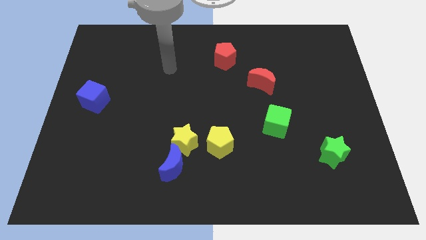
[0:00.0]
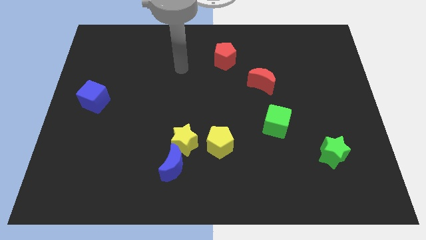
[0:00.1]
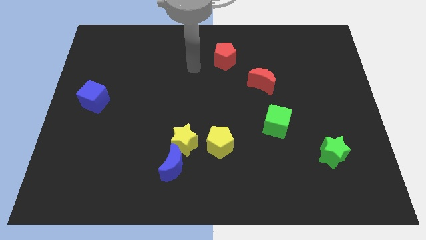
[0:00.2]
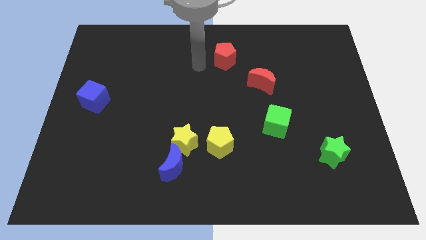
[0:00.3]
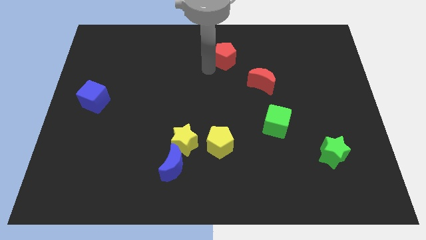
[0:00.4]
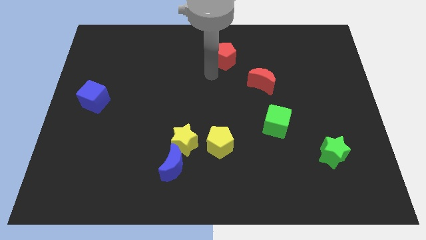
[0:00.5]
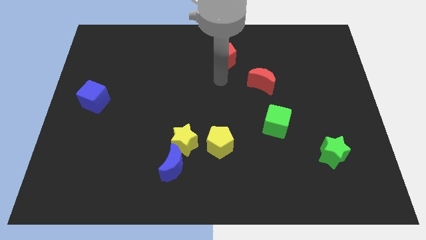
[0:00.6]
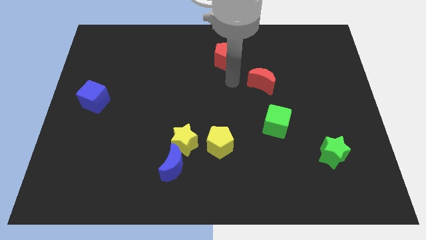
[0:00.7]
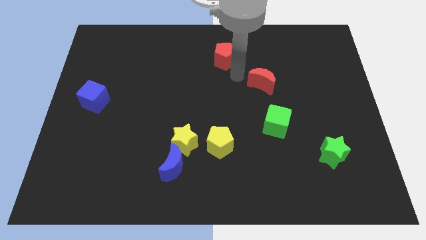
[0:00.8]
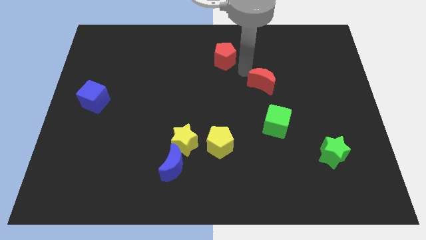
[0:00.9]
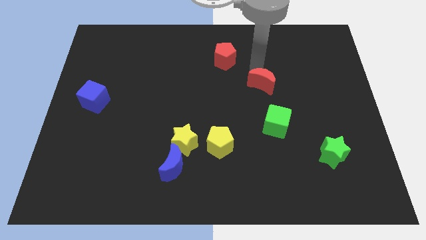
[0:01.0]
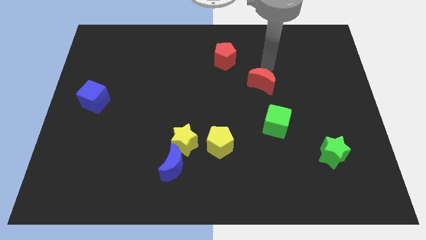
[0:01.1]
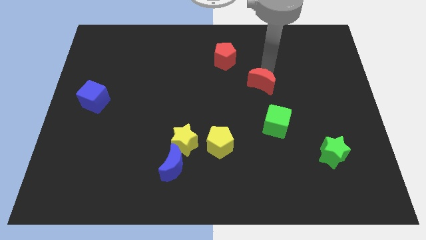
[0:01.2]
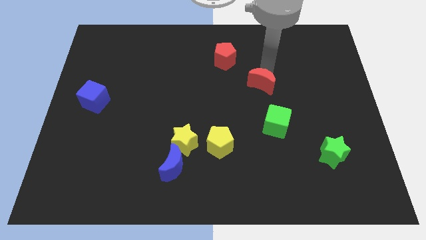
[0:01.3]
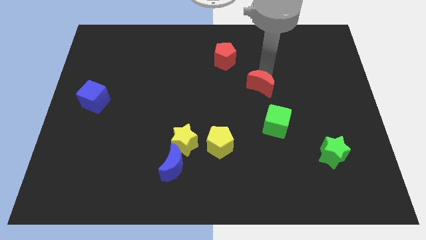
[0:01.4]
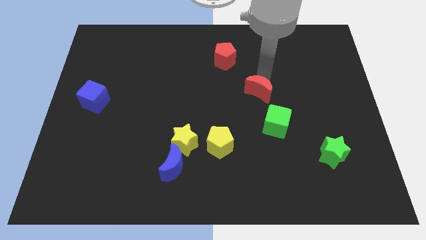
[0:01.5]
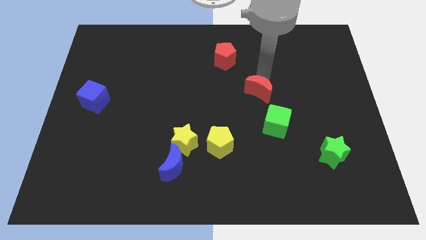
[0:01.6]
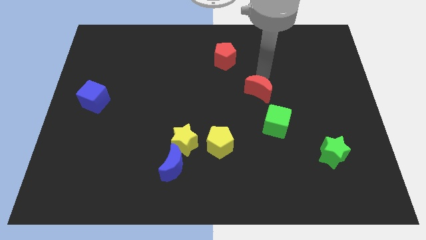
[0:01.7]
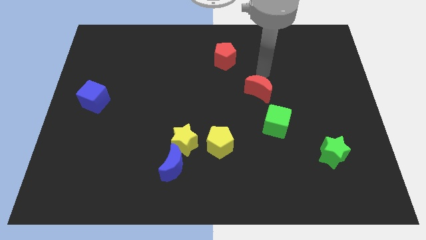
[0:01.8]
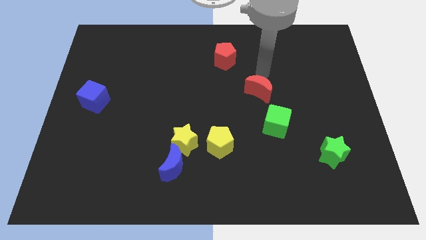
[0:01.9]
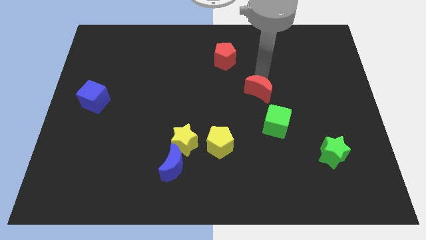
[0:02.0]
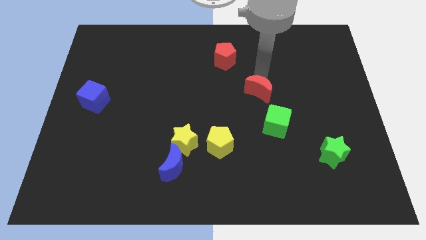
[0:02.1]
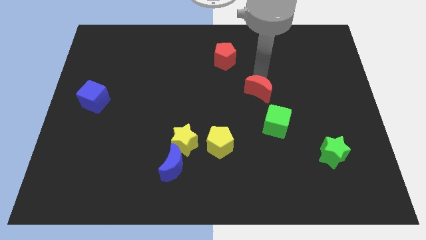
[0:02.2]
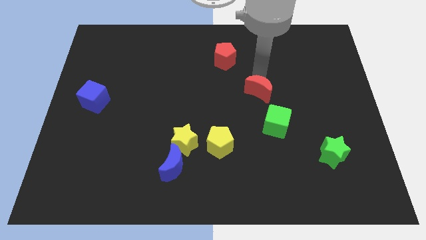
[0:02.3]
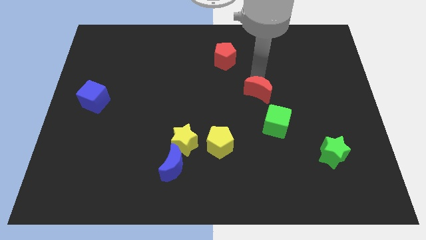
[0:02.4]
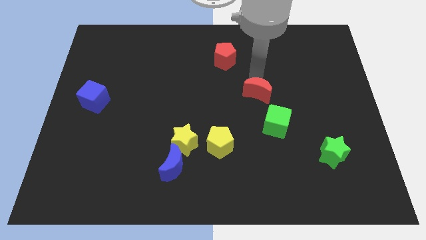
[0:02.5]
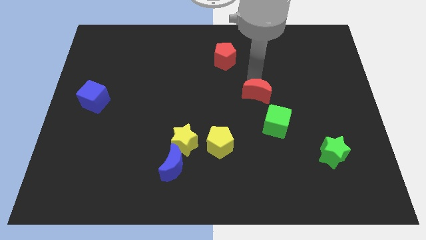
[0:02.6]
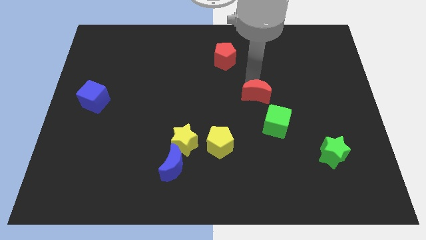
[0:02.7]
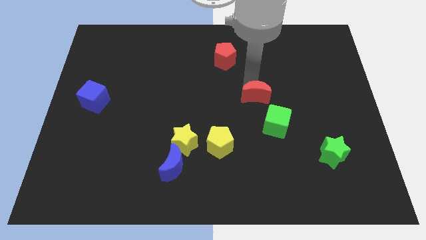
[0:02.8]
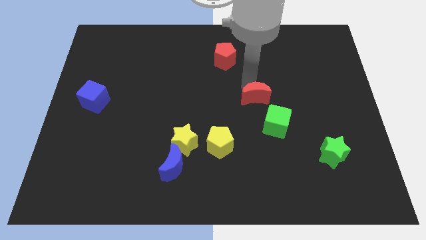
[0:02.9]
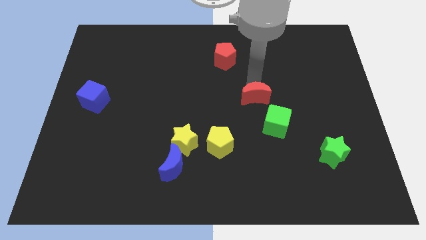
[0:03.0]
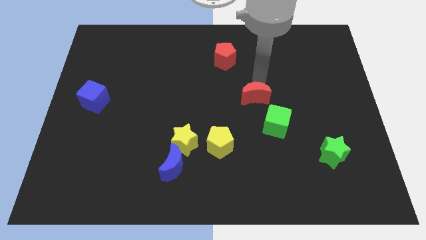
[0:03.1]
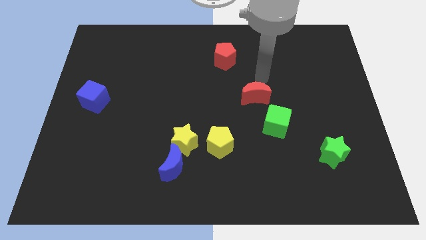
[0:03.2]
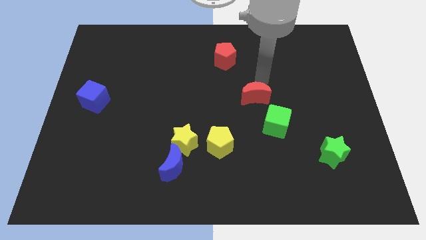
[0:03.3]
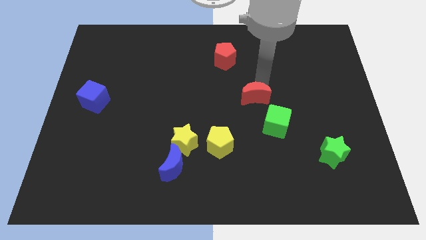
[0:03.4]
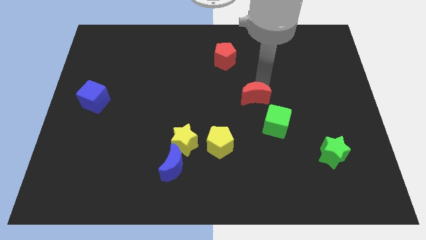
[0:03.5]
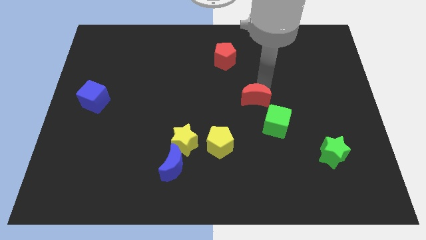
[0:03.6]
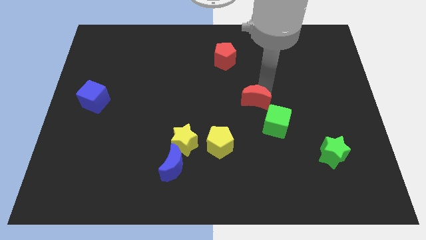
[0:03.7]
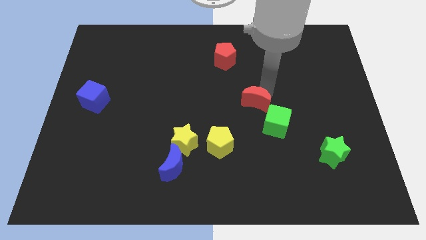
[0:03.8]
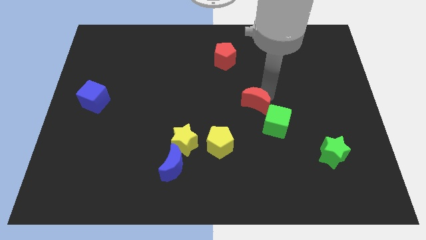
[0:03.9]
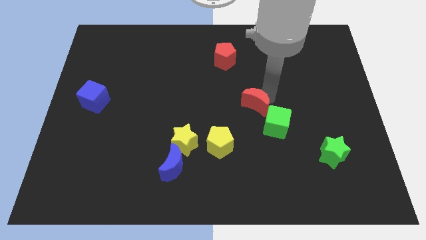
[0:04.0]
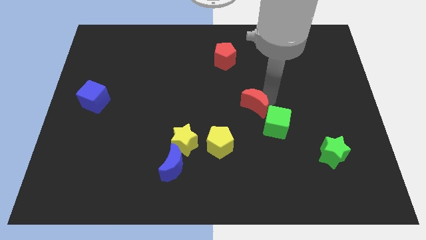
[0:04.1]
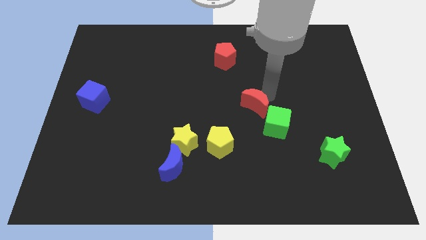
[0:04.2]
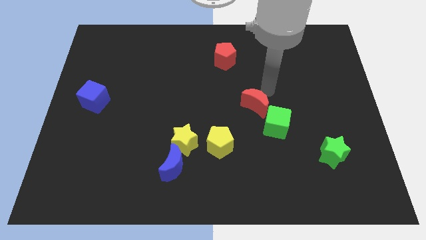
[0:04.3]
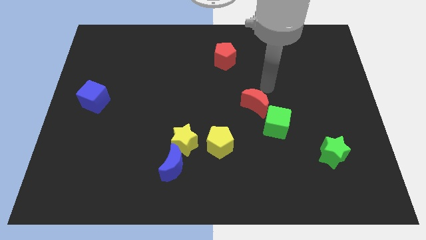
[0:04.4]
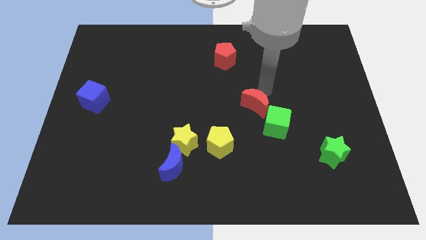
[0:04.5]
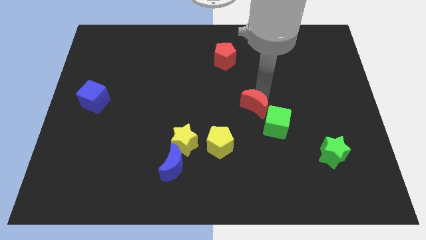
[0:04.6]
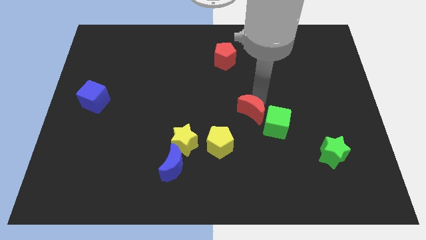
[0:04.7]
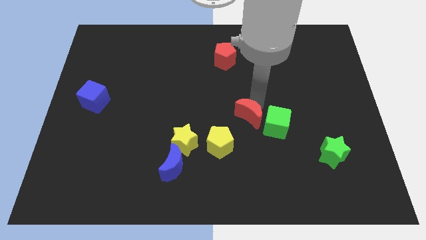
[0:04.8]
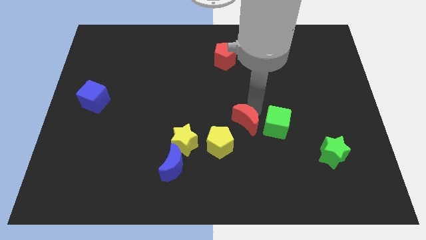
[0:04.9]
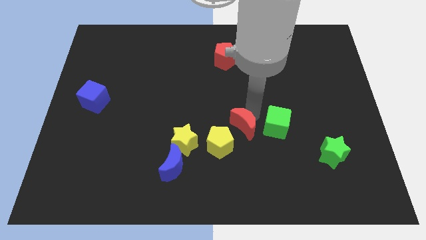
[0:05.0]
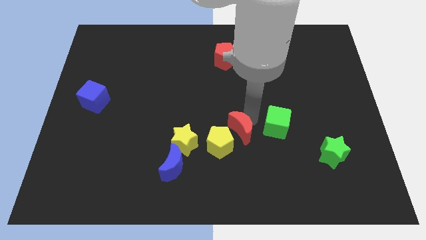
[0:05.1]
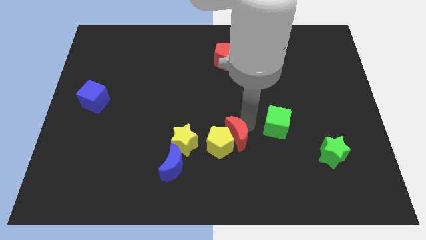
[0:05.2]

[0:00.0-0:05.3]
slide the red moon next to the yellow pentagon

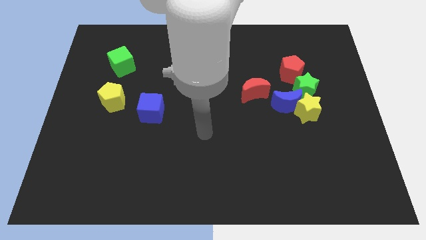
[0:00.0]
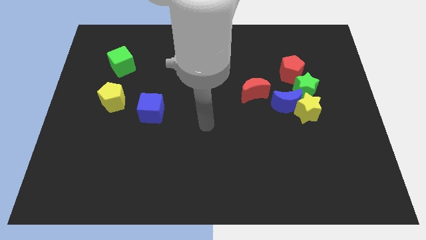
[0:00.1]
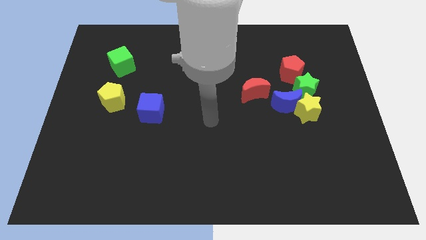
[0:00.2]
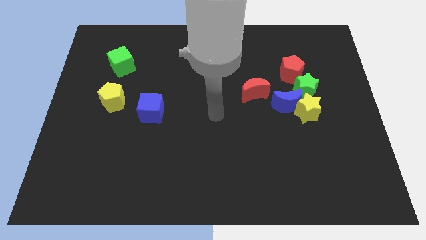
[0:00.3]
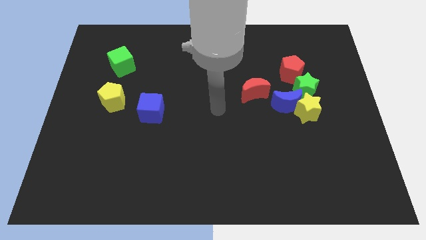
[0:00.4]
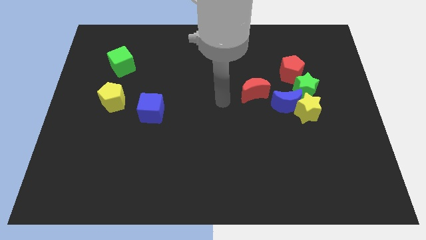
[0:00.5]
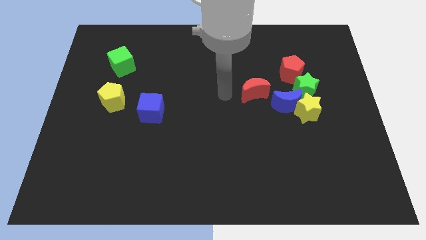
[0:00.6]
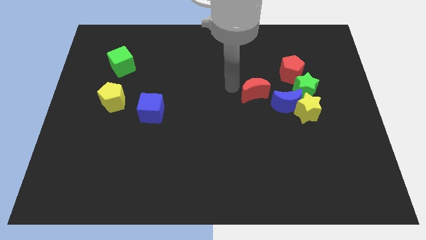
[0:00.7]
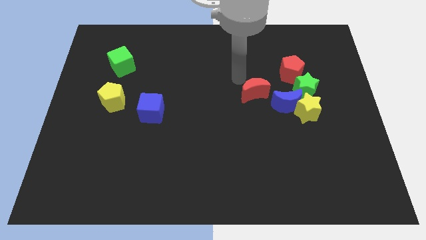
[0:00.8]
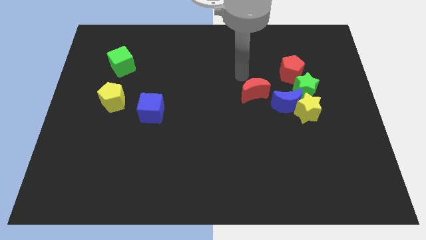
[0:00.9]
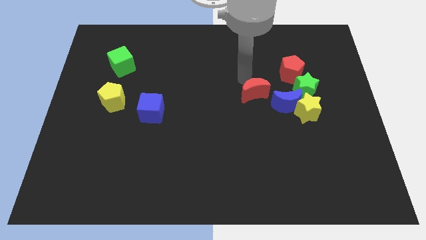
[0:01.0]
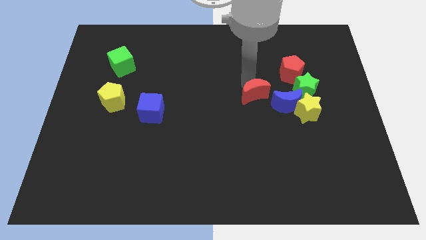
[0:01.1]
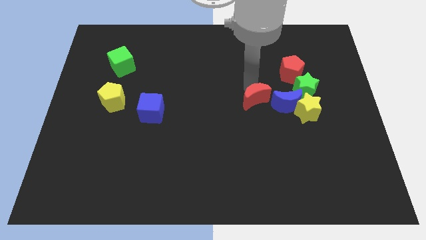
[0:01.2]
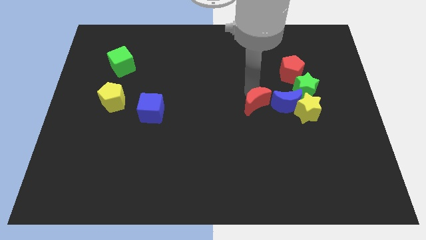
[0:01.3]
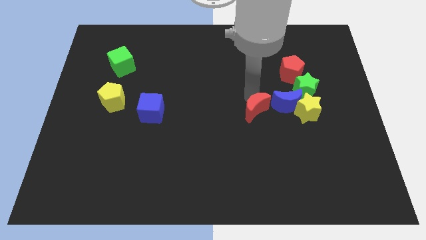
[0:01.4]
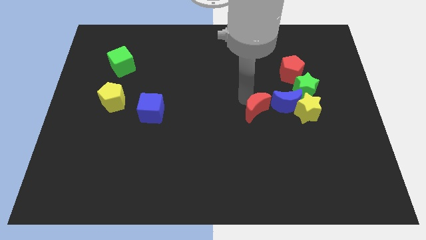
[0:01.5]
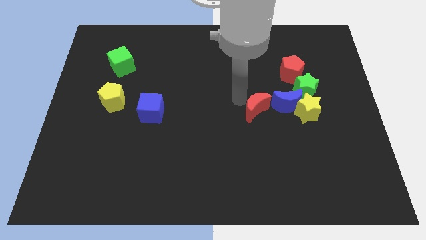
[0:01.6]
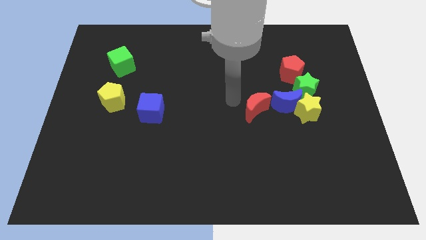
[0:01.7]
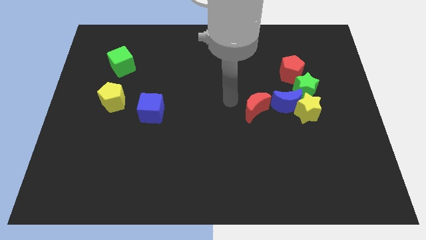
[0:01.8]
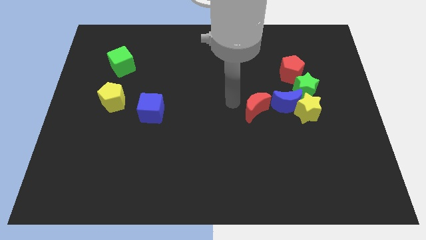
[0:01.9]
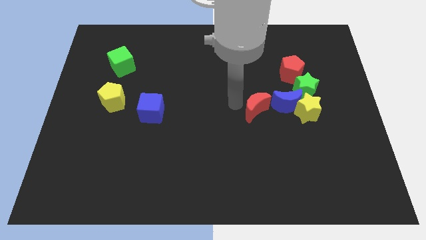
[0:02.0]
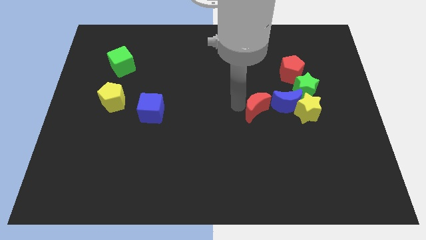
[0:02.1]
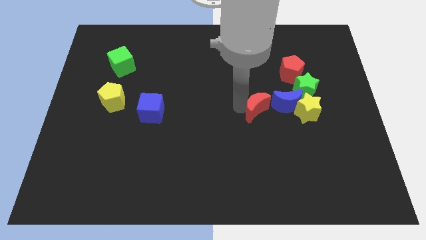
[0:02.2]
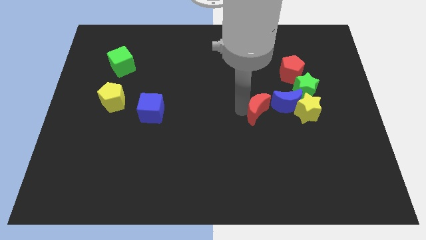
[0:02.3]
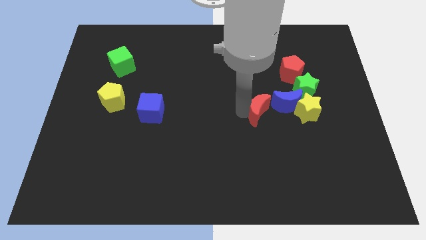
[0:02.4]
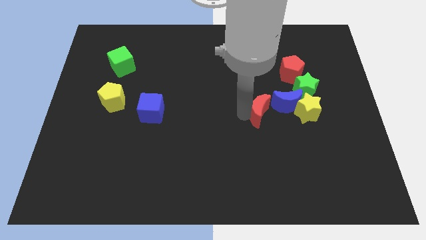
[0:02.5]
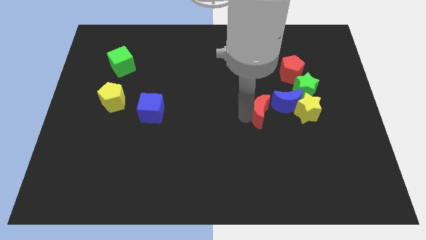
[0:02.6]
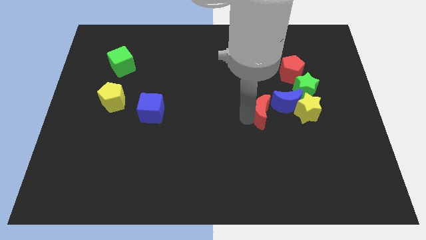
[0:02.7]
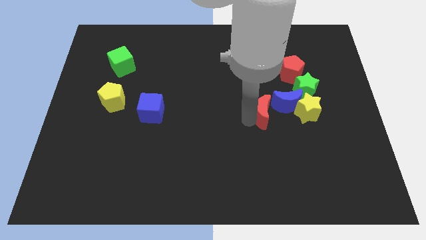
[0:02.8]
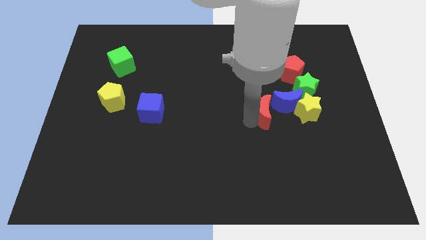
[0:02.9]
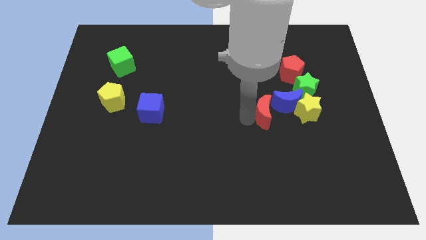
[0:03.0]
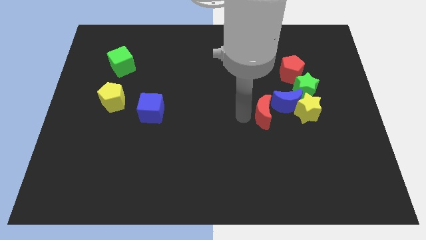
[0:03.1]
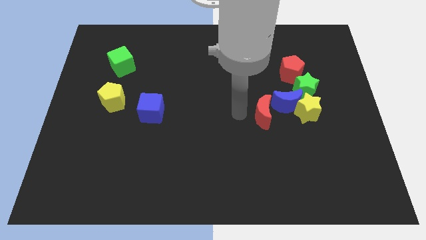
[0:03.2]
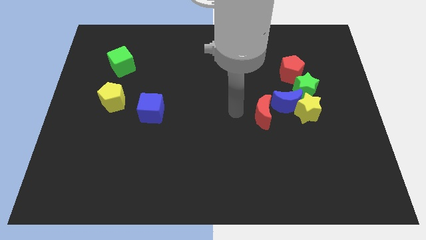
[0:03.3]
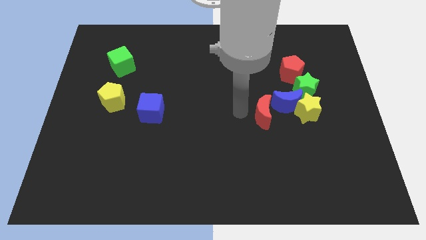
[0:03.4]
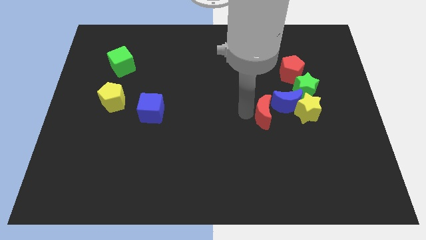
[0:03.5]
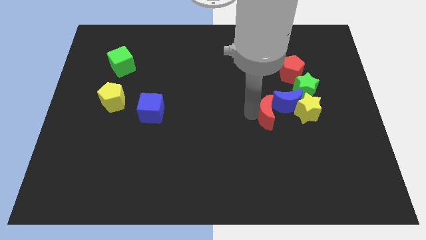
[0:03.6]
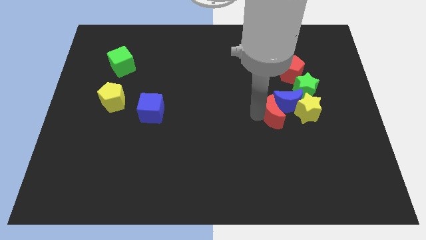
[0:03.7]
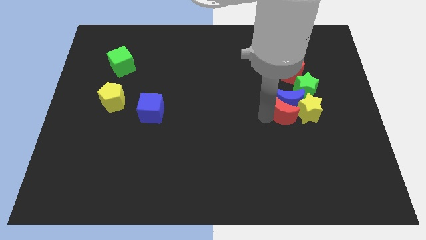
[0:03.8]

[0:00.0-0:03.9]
put the red moon close to the yellow star
